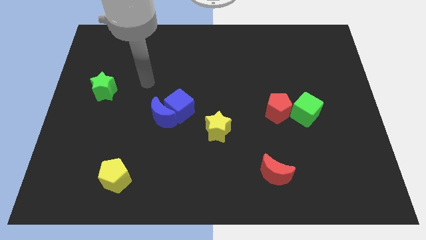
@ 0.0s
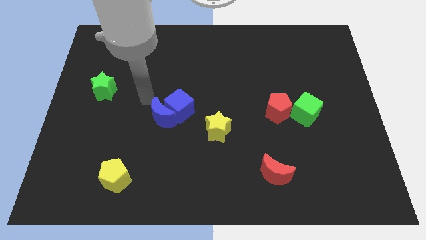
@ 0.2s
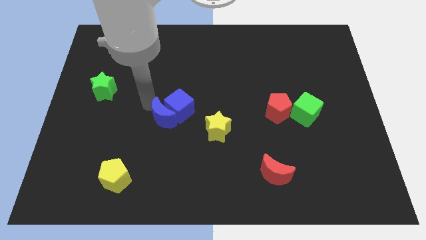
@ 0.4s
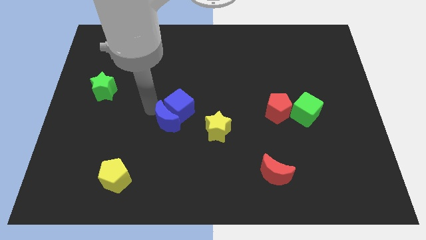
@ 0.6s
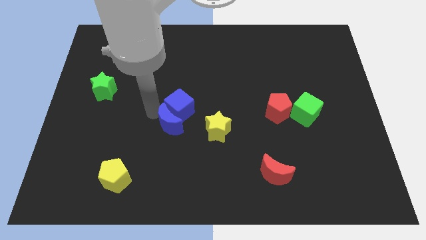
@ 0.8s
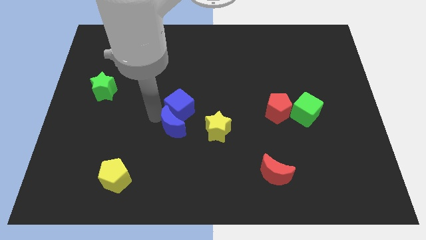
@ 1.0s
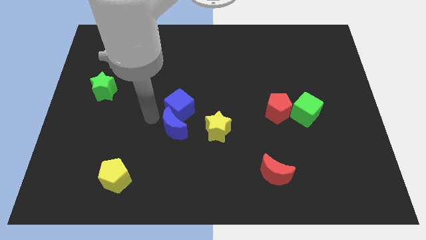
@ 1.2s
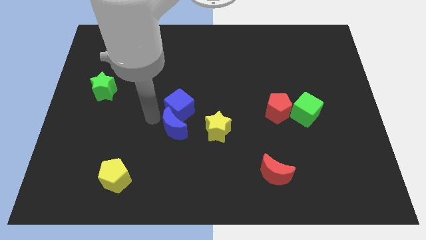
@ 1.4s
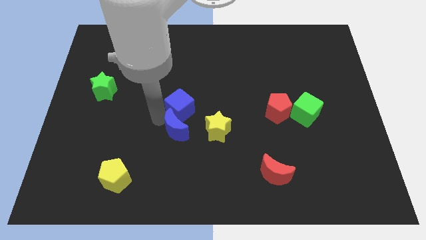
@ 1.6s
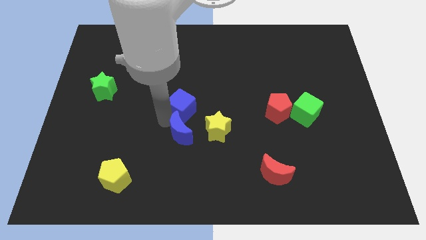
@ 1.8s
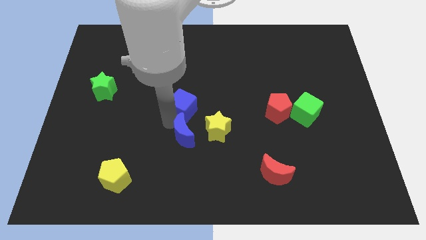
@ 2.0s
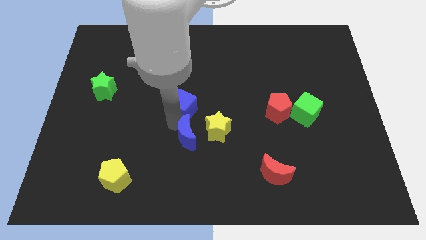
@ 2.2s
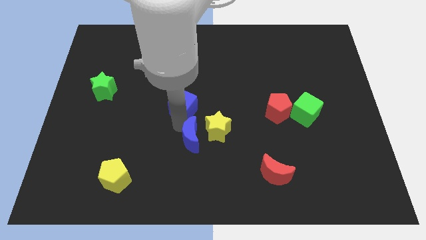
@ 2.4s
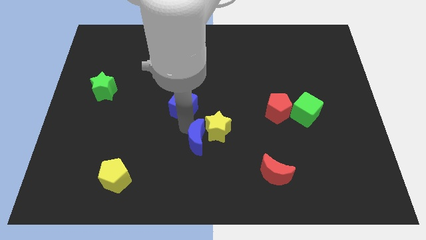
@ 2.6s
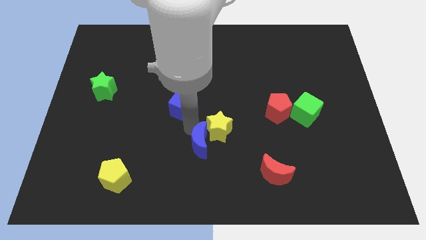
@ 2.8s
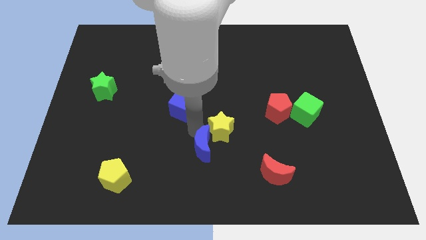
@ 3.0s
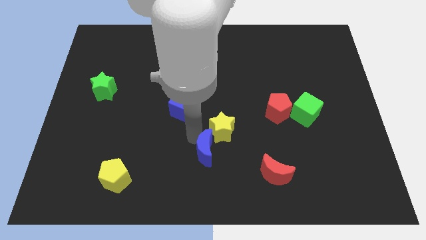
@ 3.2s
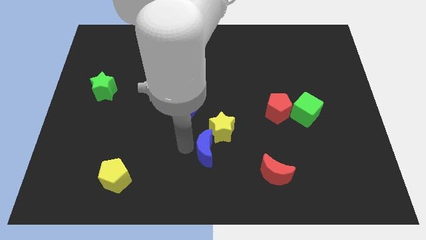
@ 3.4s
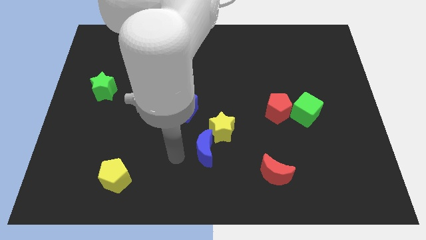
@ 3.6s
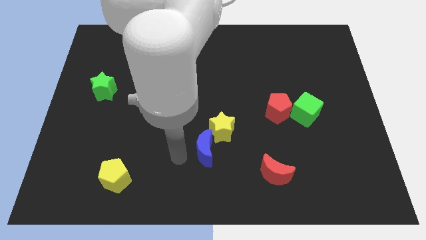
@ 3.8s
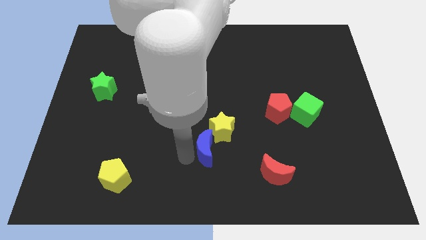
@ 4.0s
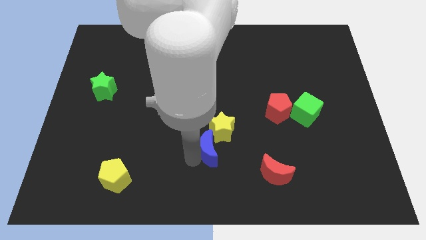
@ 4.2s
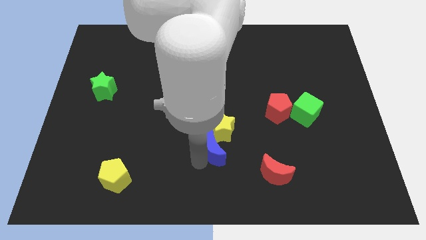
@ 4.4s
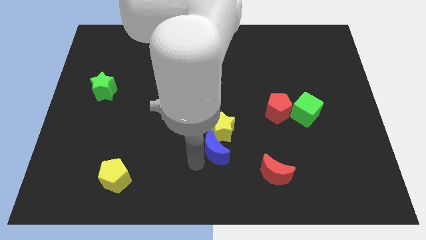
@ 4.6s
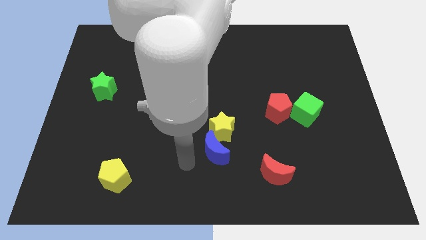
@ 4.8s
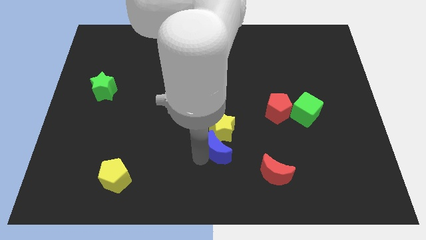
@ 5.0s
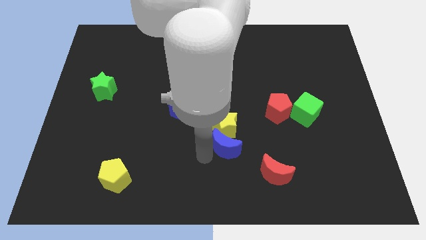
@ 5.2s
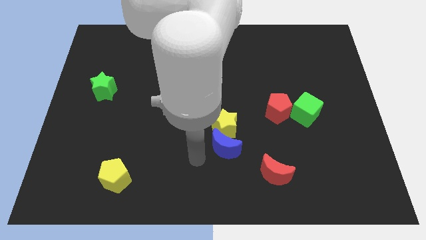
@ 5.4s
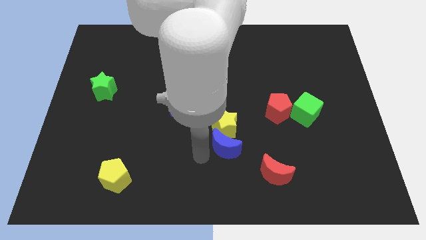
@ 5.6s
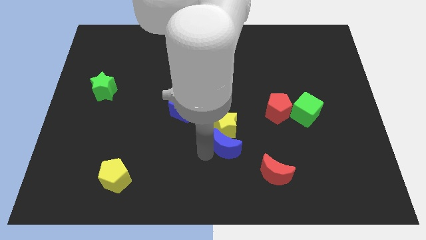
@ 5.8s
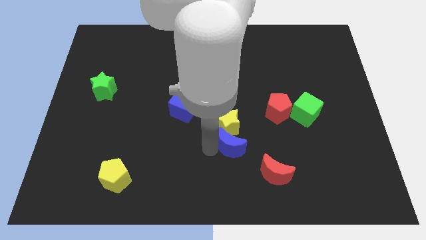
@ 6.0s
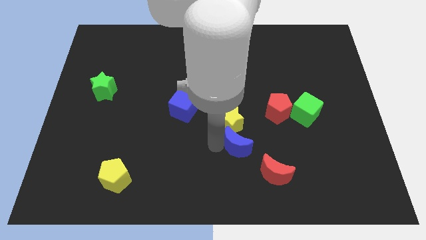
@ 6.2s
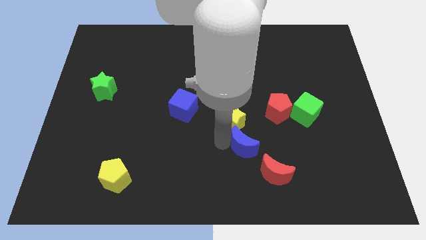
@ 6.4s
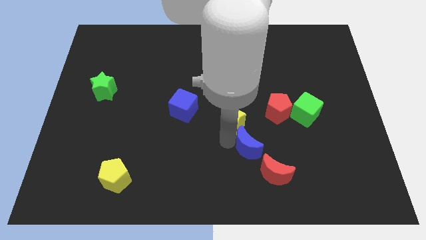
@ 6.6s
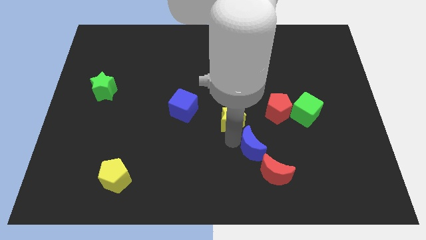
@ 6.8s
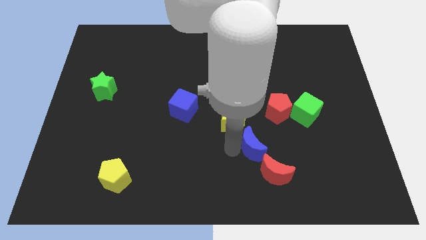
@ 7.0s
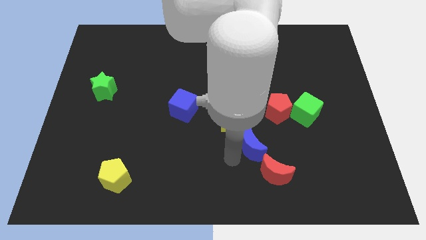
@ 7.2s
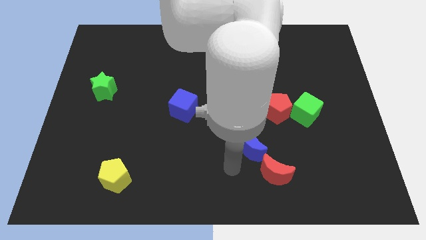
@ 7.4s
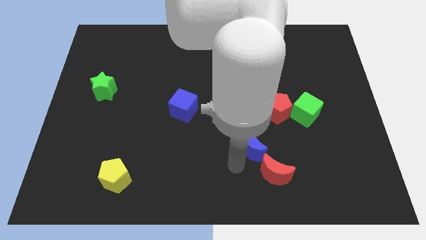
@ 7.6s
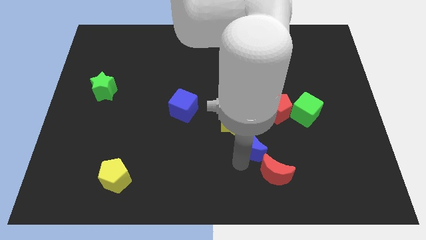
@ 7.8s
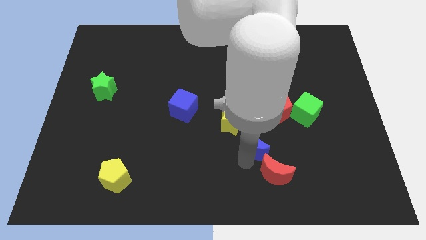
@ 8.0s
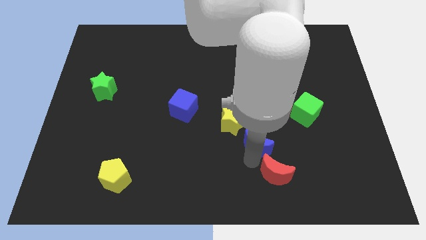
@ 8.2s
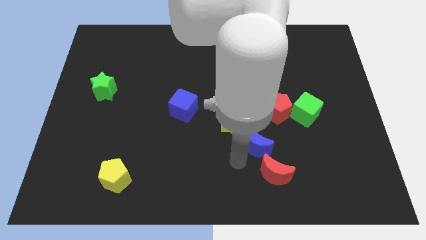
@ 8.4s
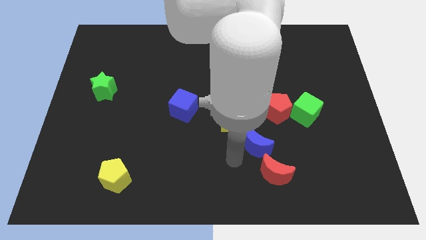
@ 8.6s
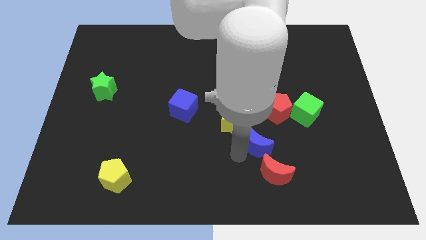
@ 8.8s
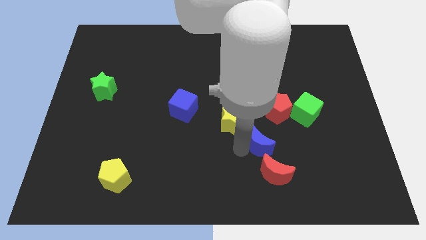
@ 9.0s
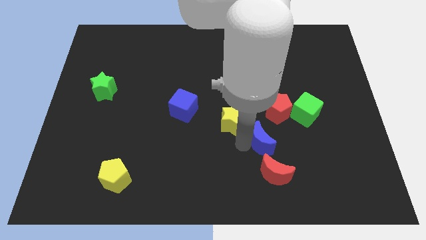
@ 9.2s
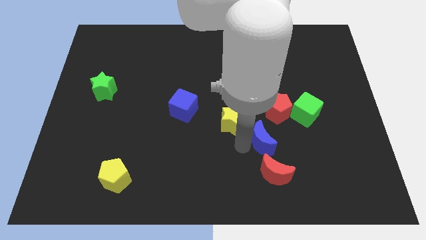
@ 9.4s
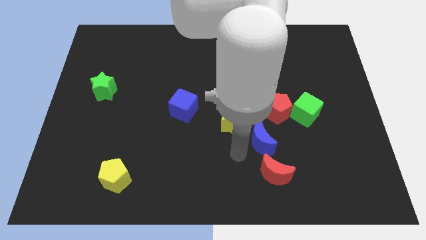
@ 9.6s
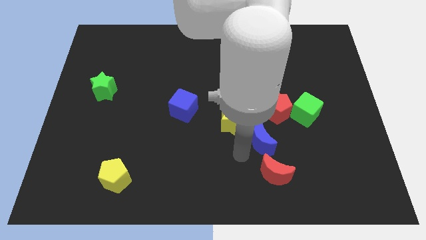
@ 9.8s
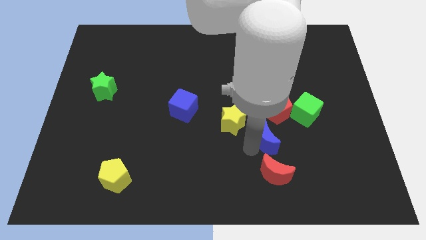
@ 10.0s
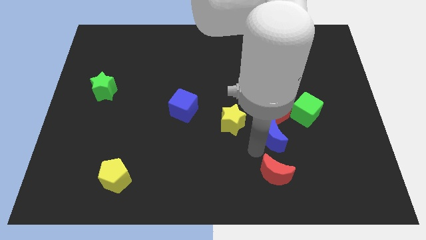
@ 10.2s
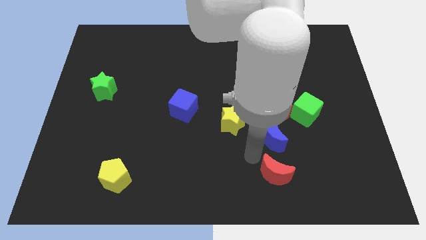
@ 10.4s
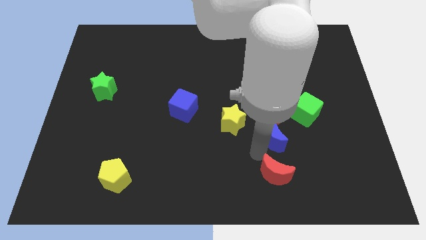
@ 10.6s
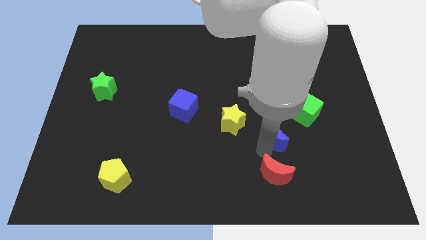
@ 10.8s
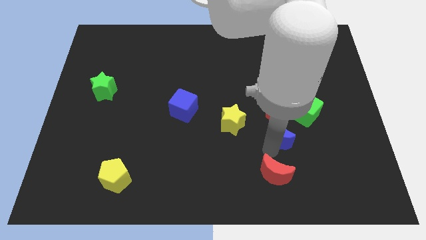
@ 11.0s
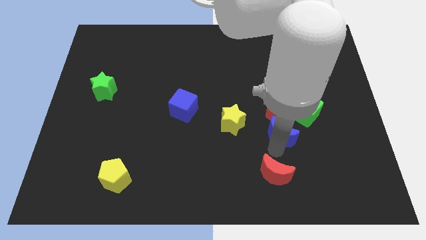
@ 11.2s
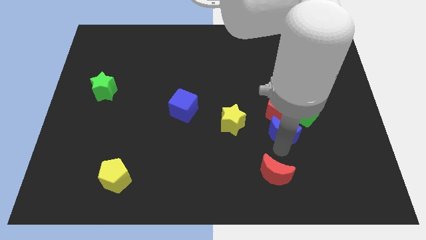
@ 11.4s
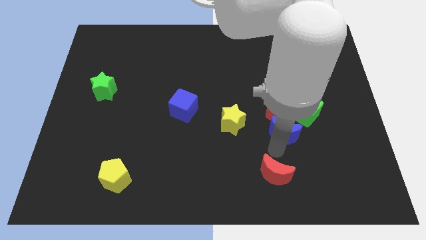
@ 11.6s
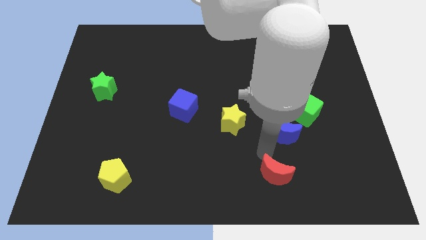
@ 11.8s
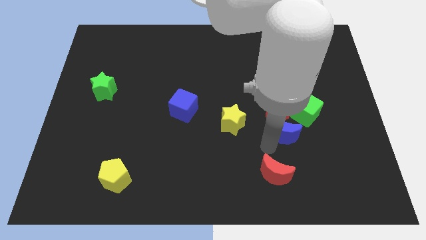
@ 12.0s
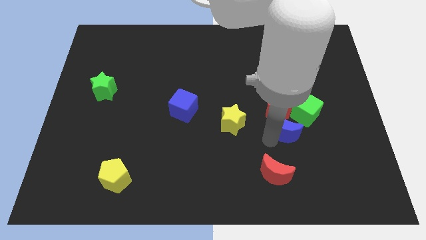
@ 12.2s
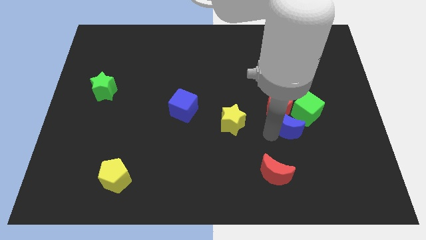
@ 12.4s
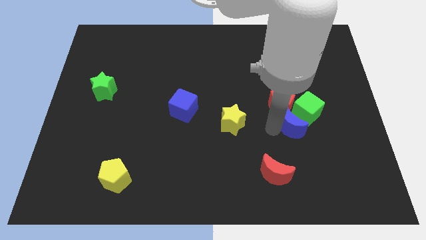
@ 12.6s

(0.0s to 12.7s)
move the blue moon close to the green cube

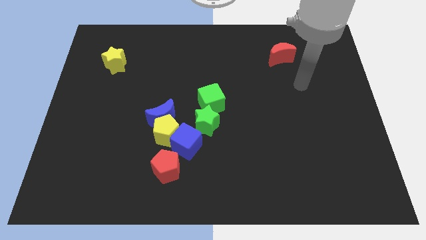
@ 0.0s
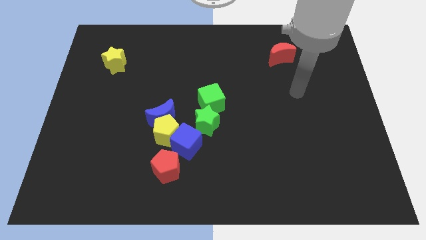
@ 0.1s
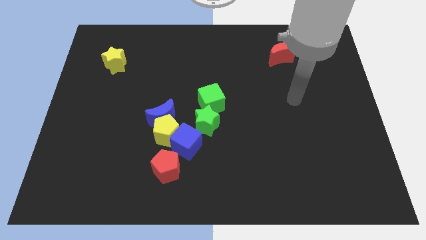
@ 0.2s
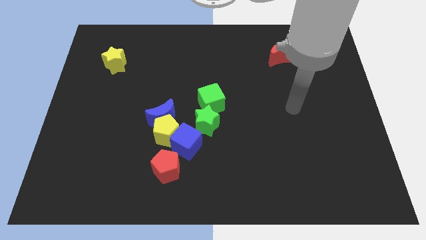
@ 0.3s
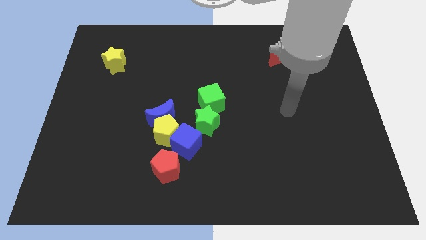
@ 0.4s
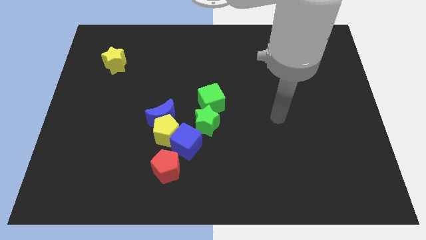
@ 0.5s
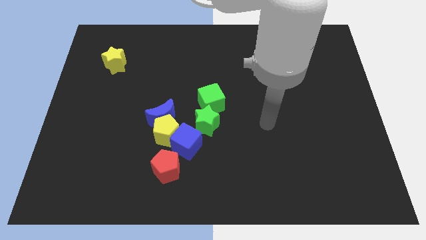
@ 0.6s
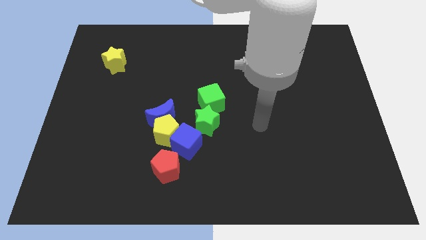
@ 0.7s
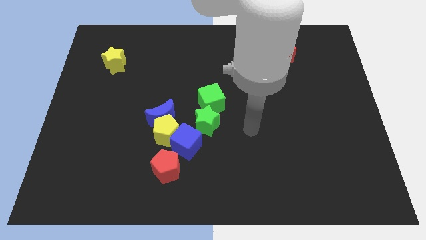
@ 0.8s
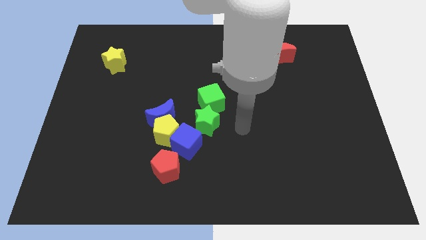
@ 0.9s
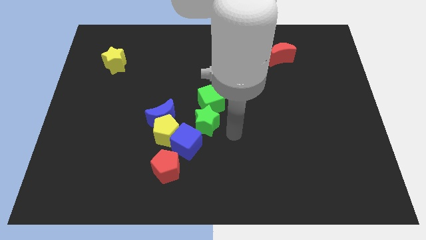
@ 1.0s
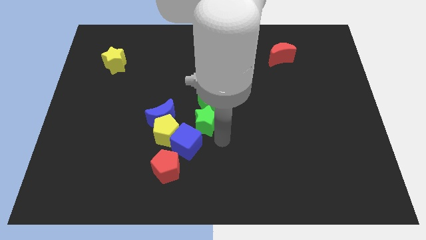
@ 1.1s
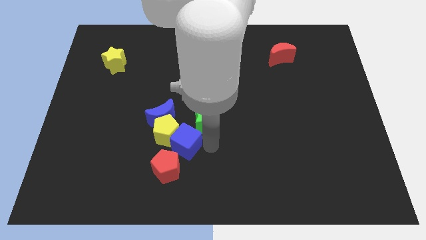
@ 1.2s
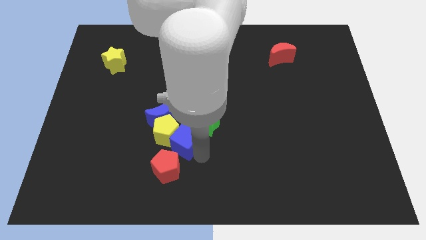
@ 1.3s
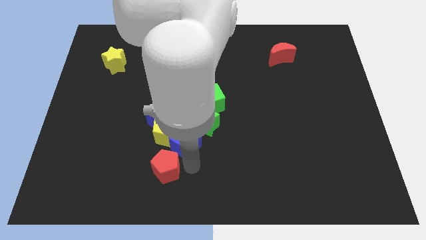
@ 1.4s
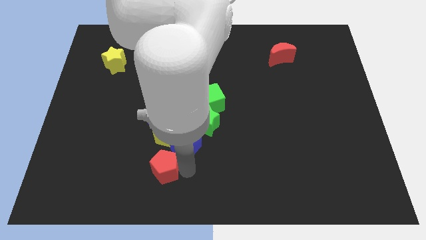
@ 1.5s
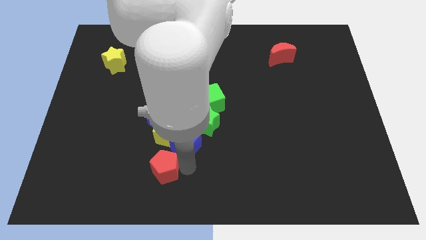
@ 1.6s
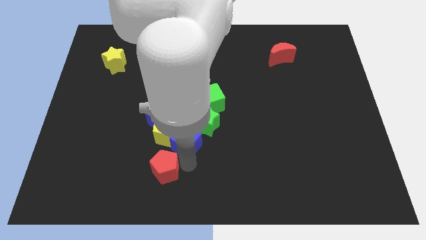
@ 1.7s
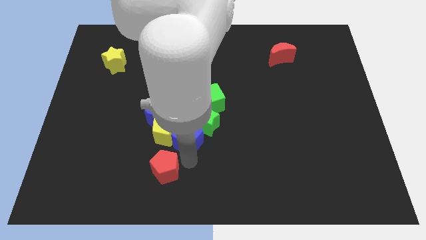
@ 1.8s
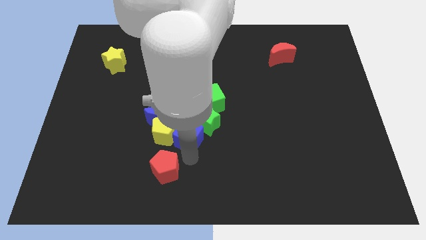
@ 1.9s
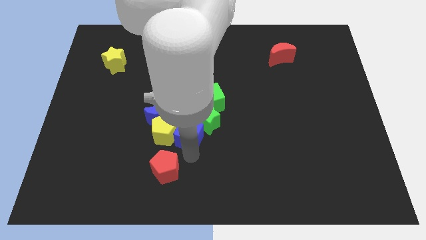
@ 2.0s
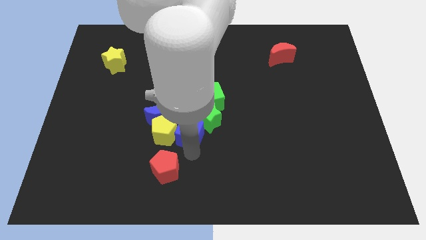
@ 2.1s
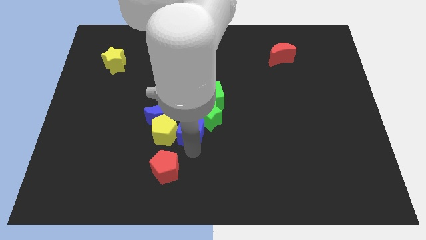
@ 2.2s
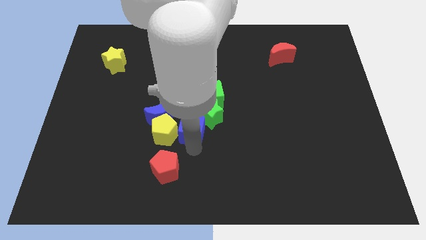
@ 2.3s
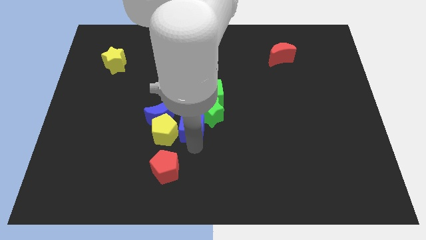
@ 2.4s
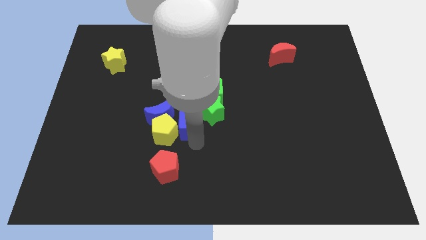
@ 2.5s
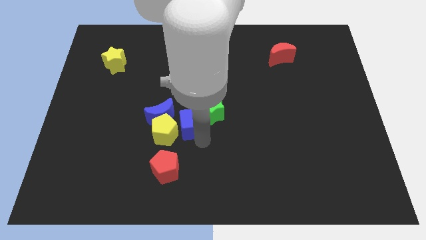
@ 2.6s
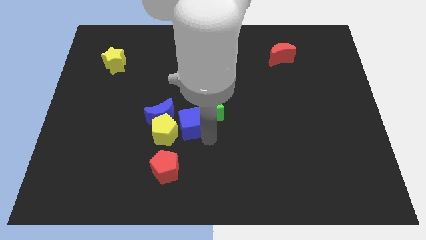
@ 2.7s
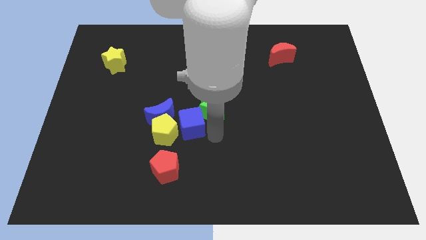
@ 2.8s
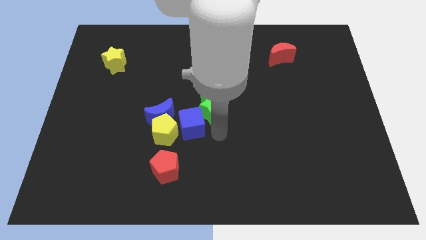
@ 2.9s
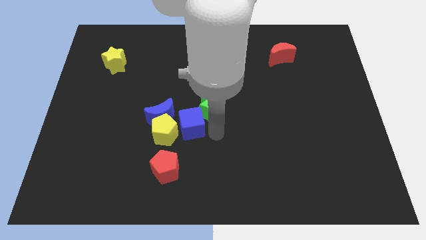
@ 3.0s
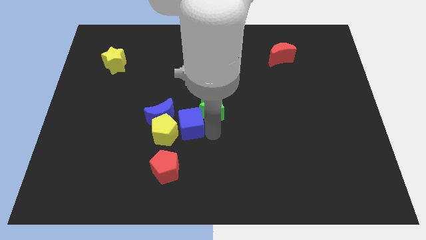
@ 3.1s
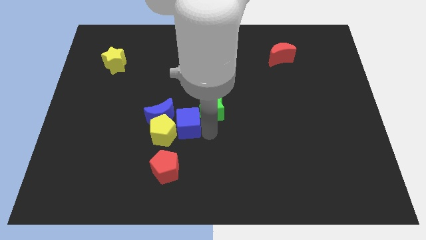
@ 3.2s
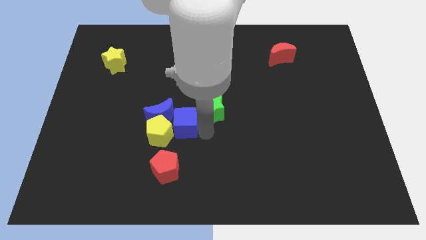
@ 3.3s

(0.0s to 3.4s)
slide the blue cube to the blue moon
